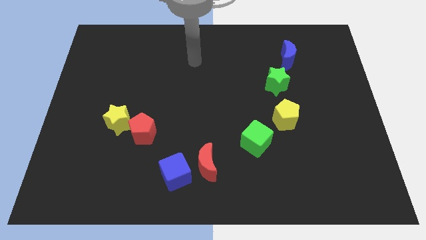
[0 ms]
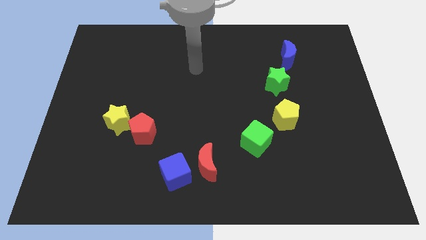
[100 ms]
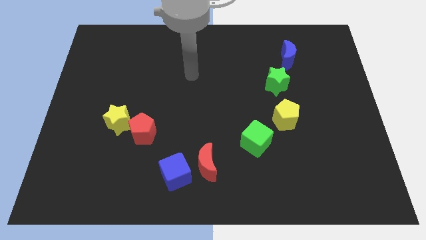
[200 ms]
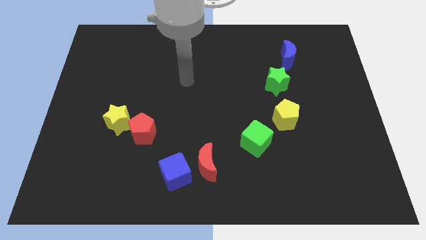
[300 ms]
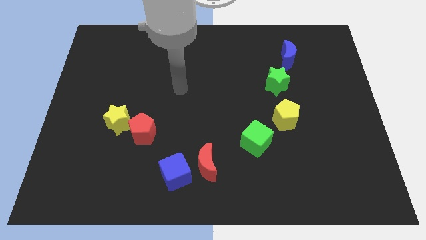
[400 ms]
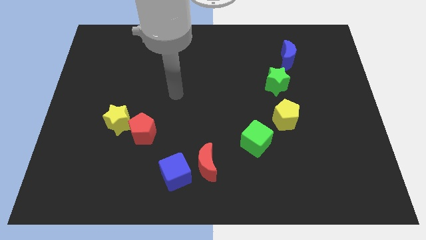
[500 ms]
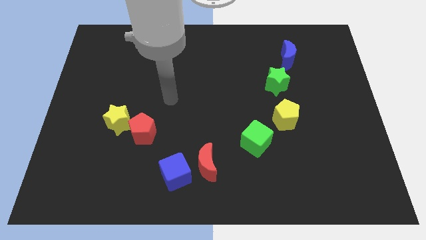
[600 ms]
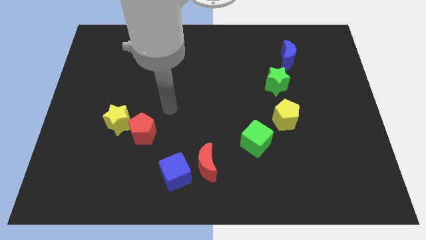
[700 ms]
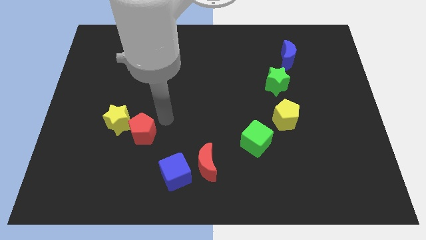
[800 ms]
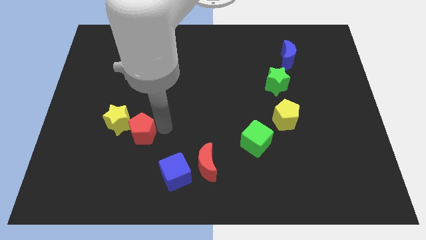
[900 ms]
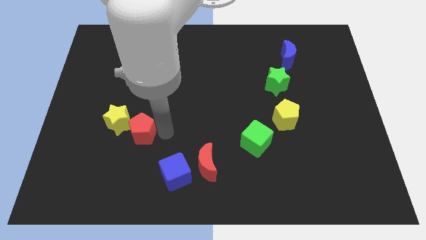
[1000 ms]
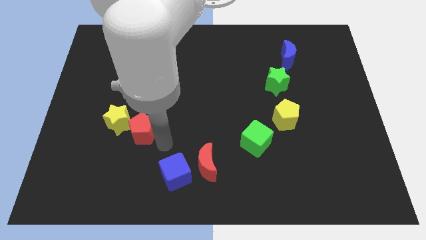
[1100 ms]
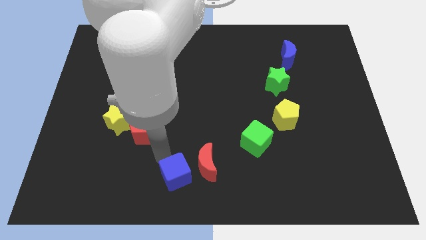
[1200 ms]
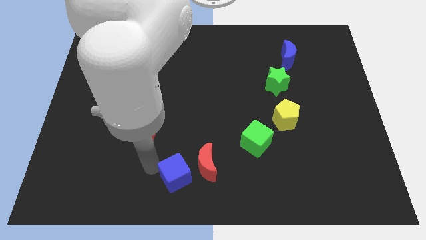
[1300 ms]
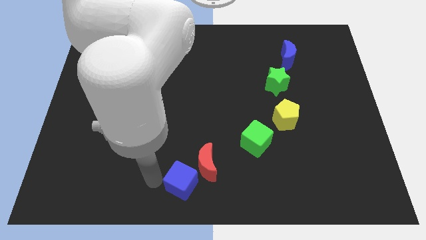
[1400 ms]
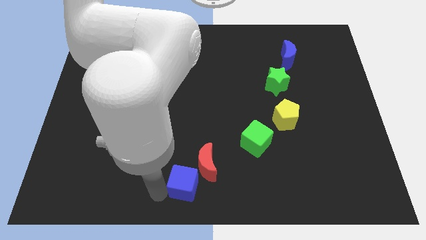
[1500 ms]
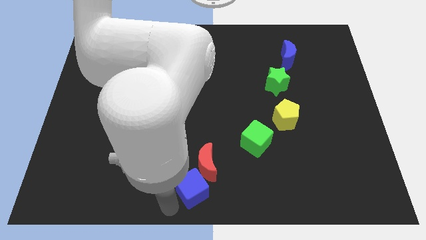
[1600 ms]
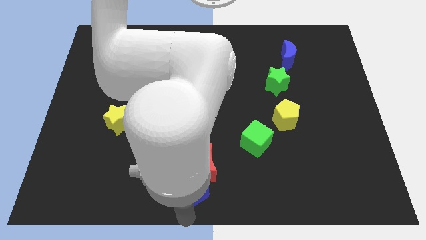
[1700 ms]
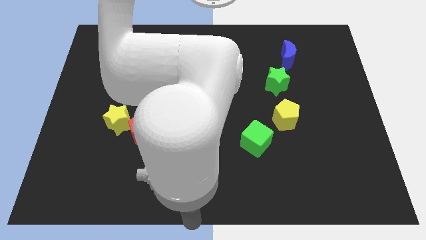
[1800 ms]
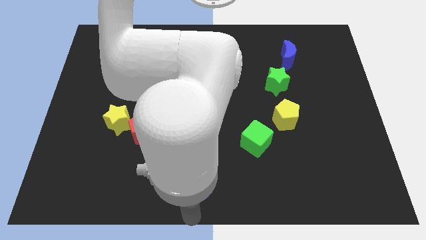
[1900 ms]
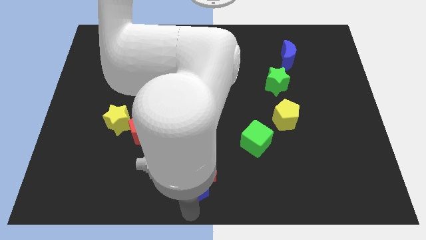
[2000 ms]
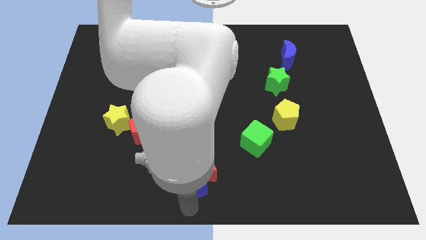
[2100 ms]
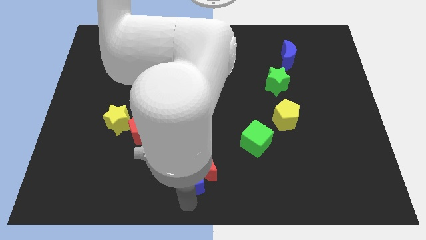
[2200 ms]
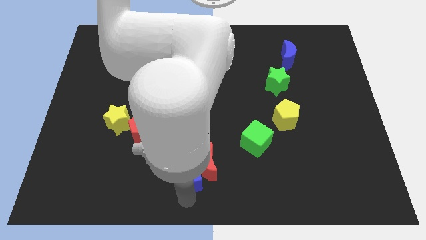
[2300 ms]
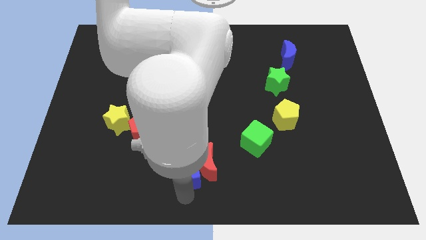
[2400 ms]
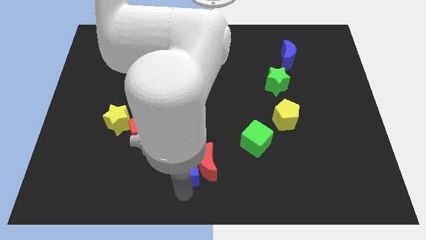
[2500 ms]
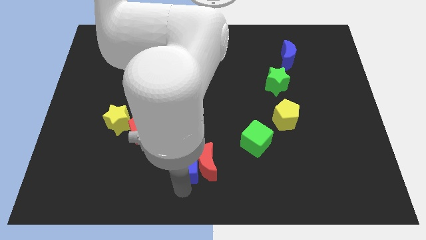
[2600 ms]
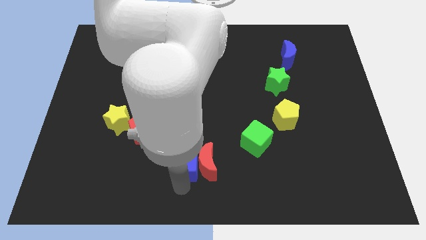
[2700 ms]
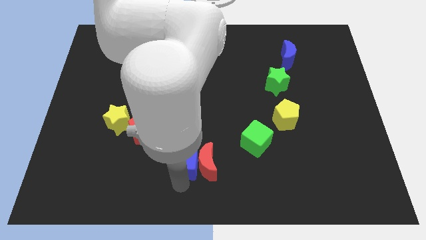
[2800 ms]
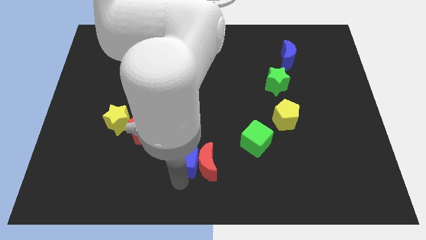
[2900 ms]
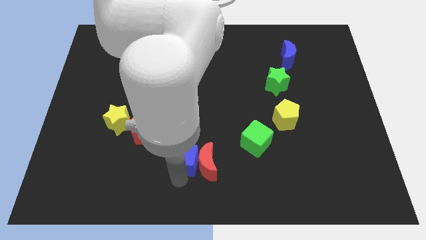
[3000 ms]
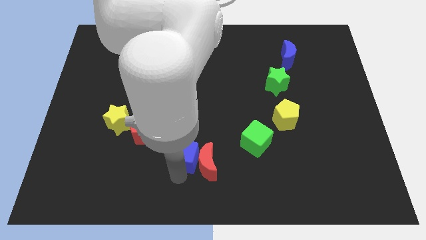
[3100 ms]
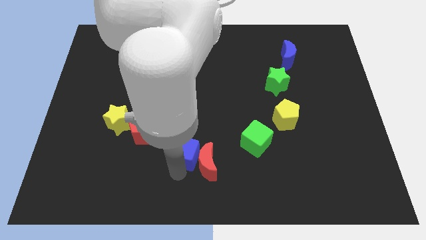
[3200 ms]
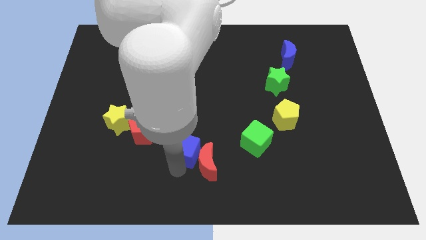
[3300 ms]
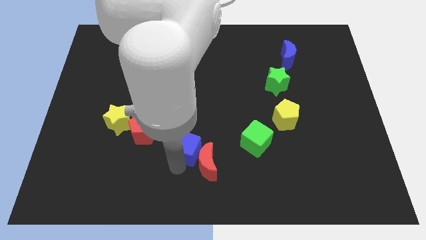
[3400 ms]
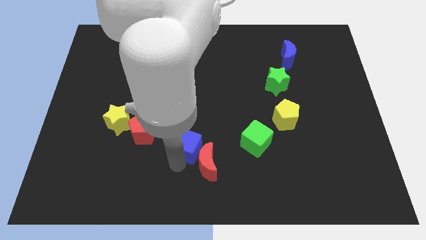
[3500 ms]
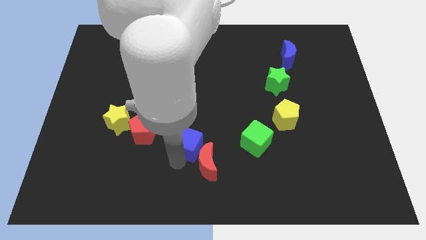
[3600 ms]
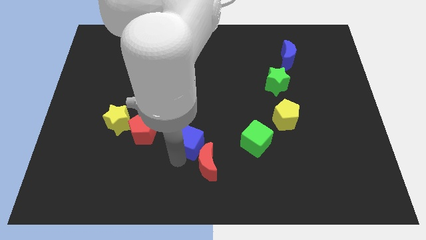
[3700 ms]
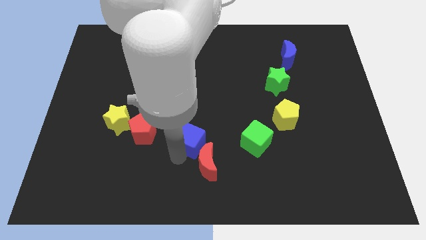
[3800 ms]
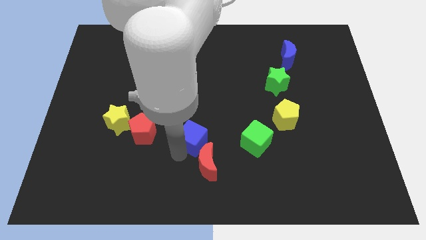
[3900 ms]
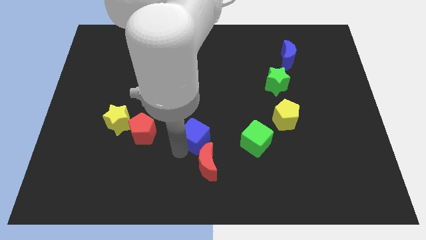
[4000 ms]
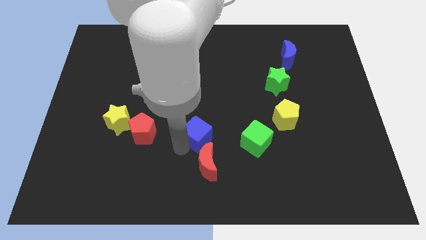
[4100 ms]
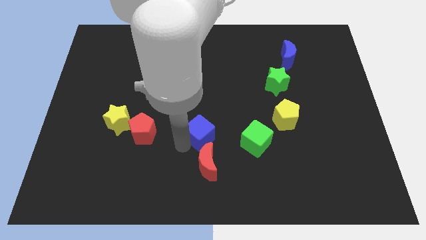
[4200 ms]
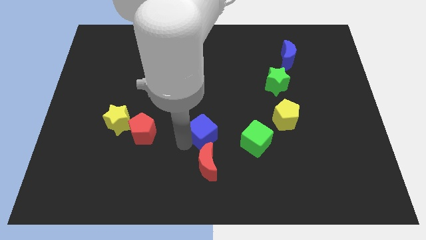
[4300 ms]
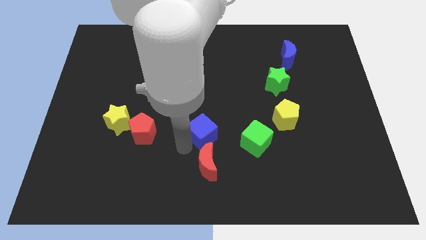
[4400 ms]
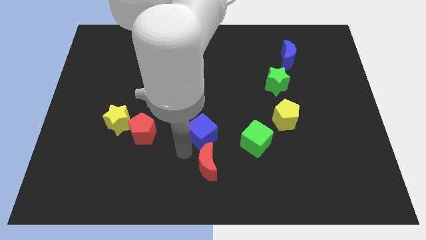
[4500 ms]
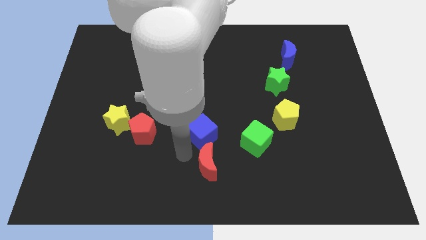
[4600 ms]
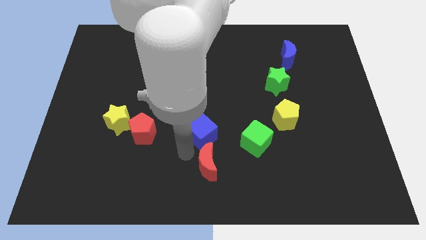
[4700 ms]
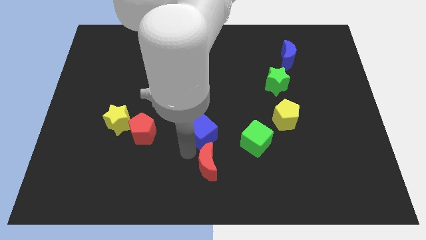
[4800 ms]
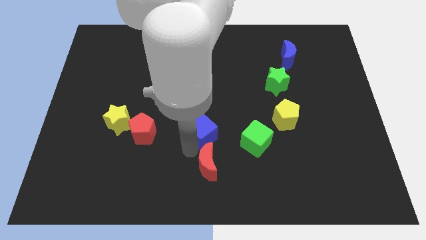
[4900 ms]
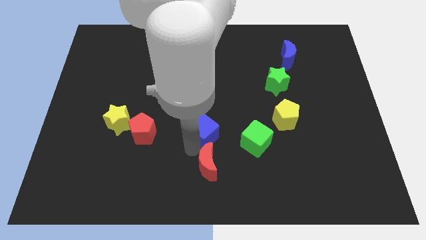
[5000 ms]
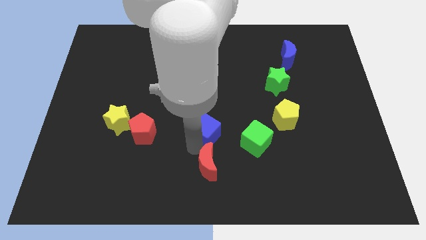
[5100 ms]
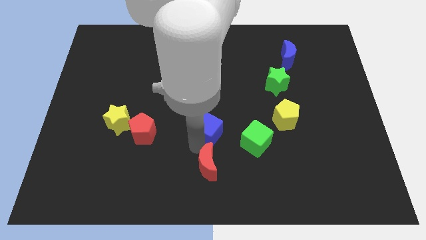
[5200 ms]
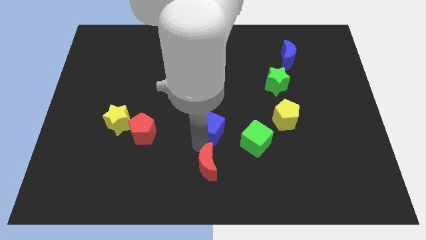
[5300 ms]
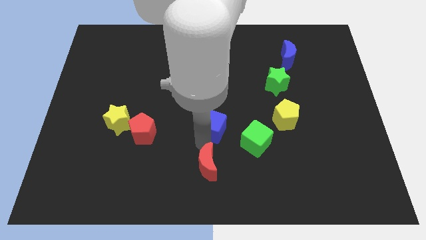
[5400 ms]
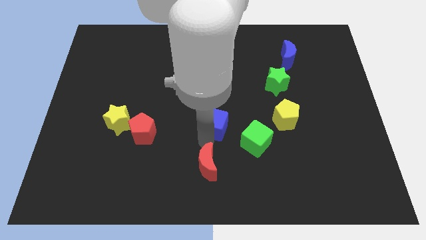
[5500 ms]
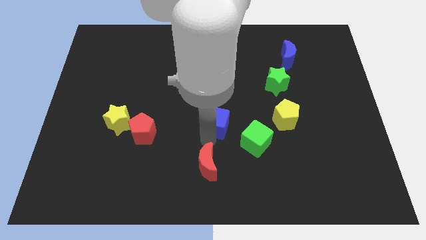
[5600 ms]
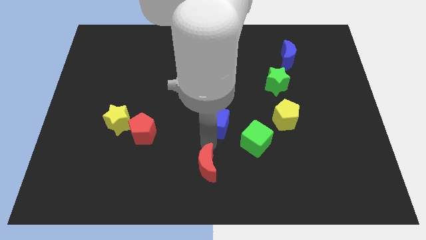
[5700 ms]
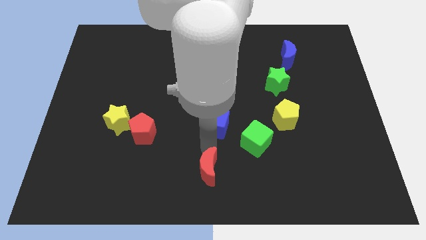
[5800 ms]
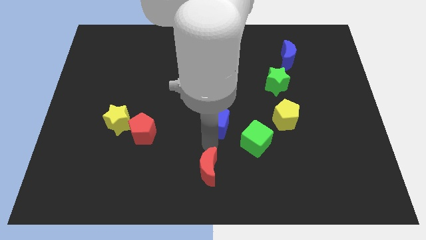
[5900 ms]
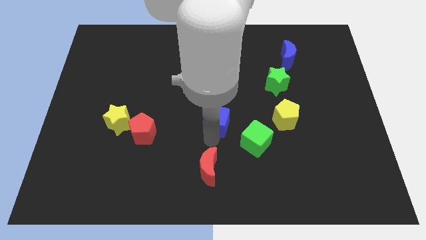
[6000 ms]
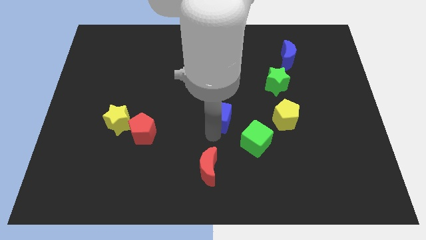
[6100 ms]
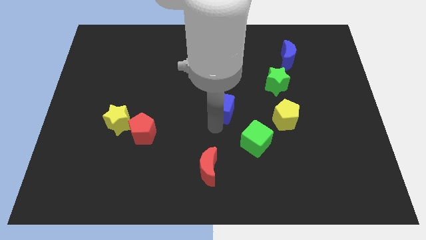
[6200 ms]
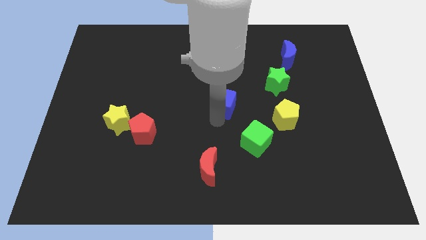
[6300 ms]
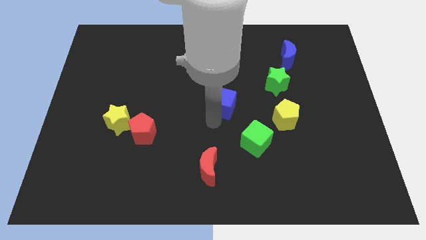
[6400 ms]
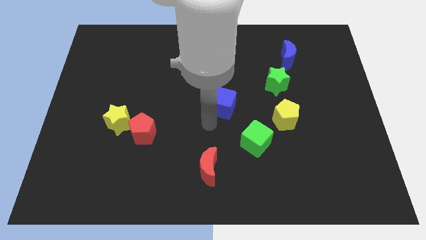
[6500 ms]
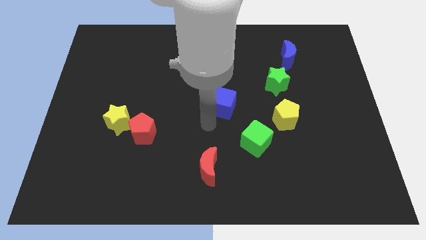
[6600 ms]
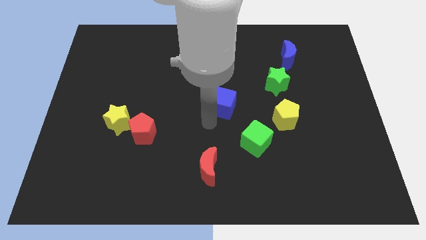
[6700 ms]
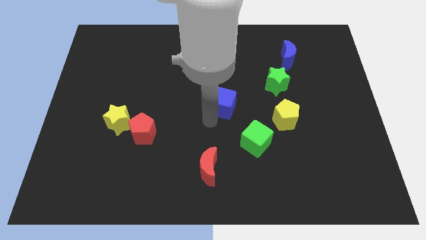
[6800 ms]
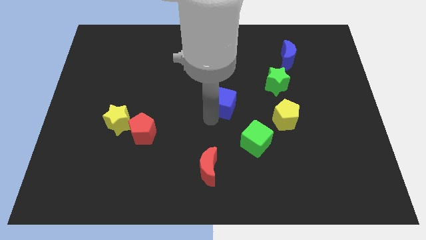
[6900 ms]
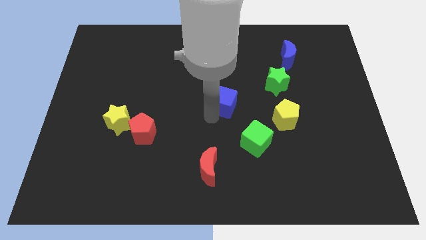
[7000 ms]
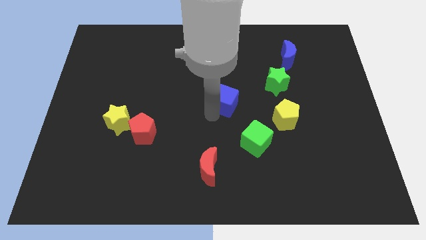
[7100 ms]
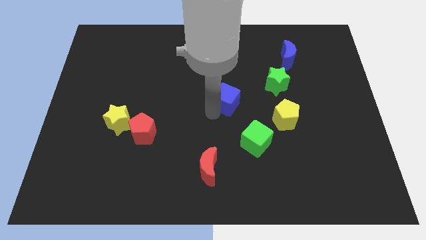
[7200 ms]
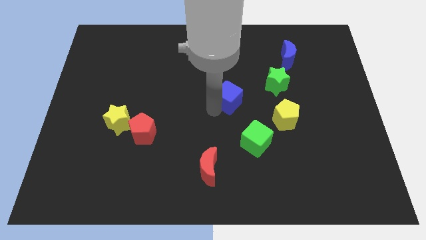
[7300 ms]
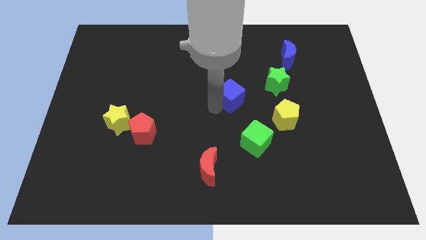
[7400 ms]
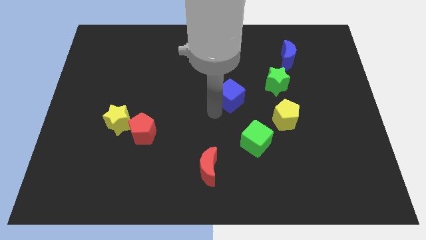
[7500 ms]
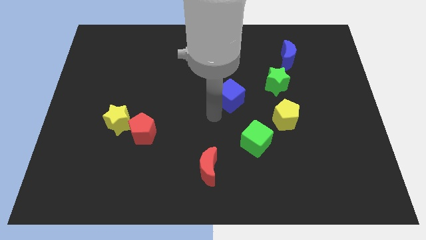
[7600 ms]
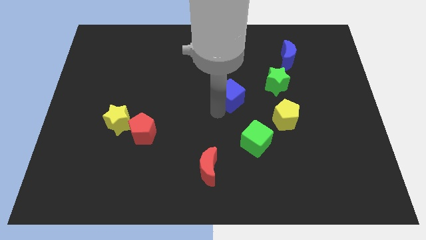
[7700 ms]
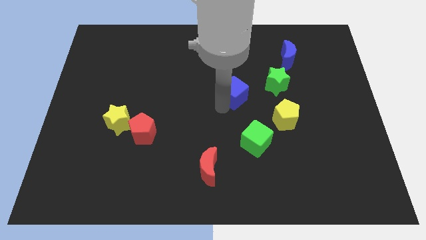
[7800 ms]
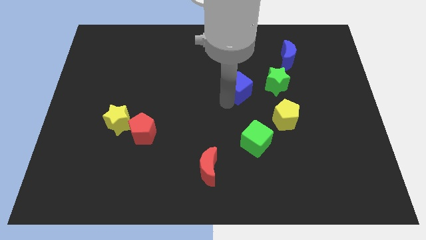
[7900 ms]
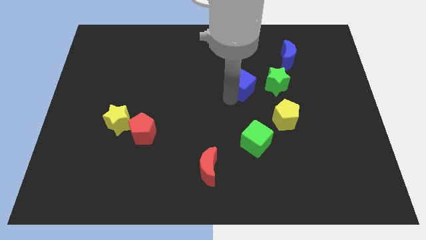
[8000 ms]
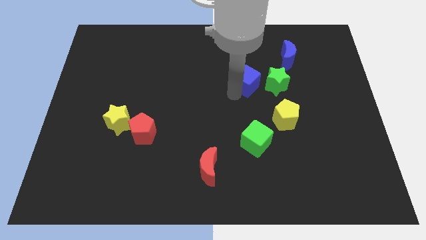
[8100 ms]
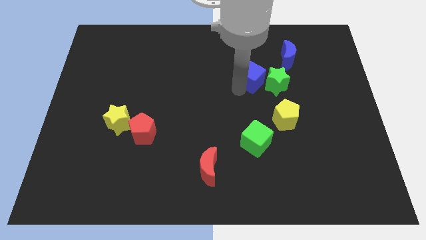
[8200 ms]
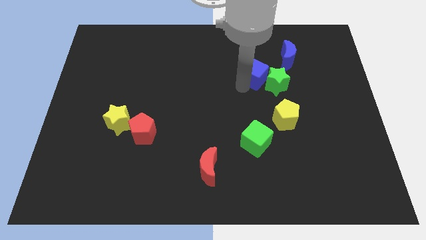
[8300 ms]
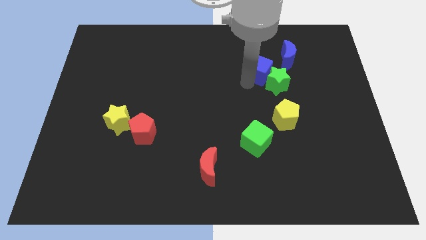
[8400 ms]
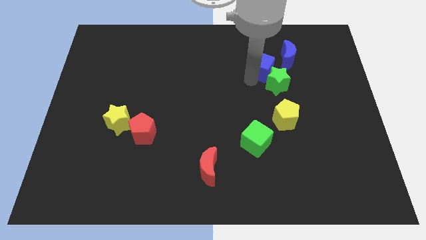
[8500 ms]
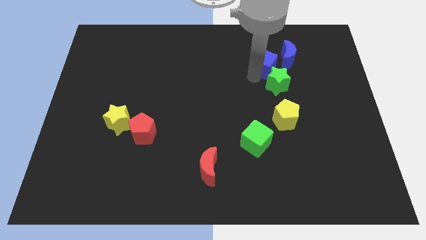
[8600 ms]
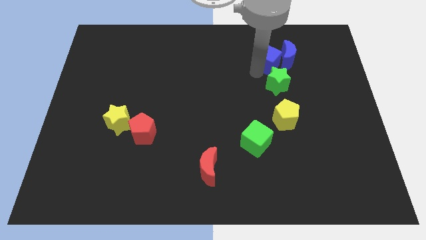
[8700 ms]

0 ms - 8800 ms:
move the blue cube close to the blue moon
